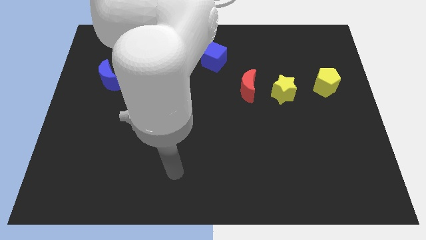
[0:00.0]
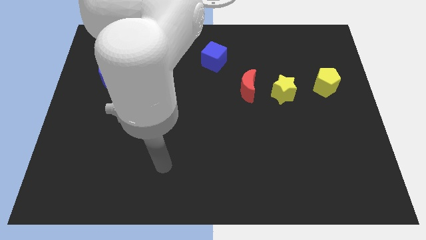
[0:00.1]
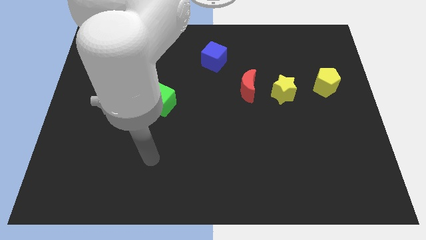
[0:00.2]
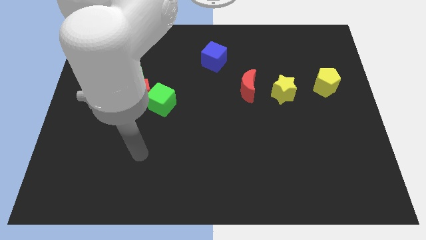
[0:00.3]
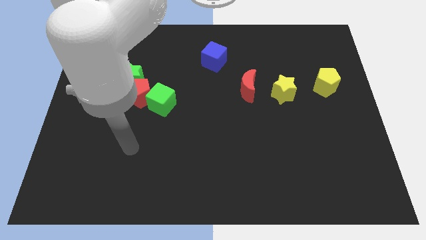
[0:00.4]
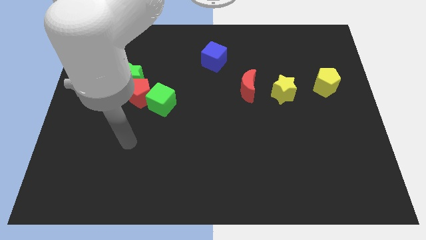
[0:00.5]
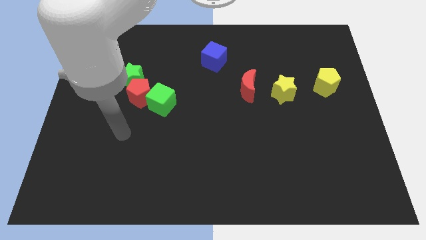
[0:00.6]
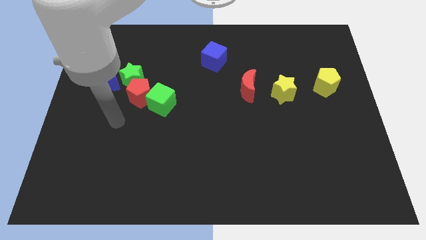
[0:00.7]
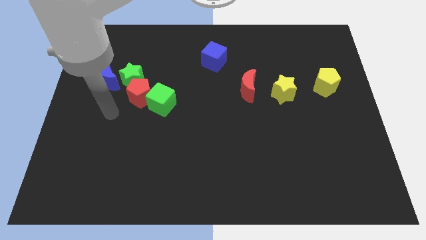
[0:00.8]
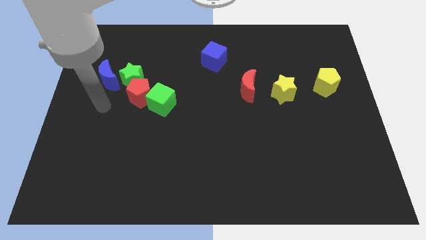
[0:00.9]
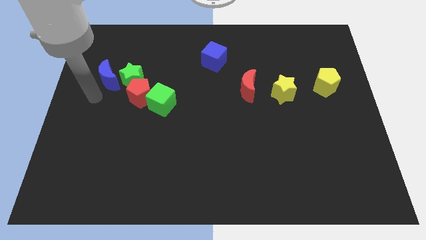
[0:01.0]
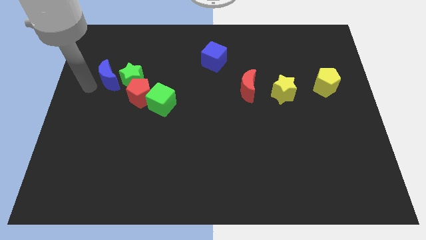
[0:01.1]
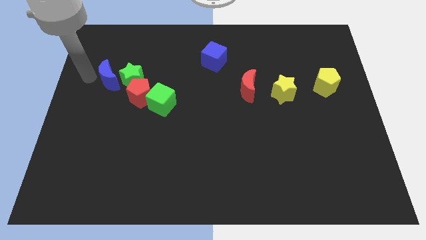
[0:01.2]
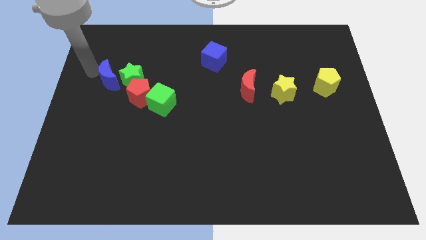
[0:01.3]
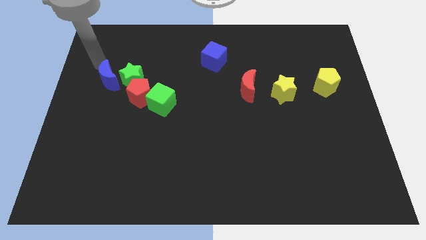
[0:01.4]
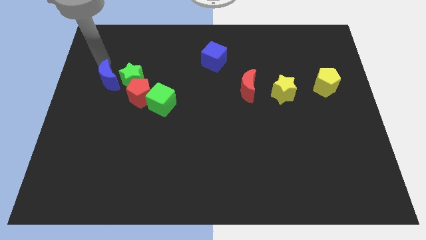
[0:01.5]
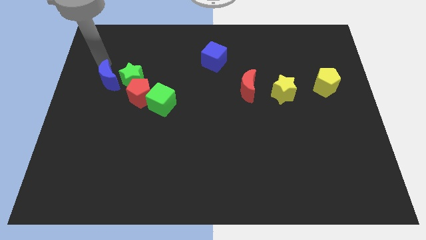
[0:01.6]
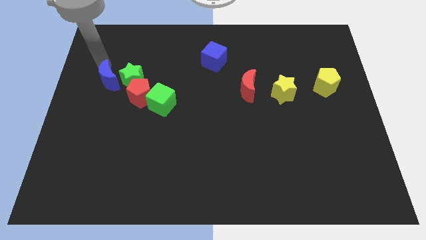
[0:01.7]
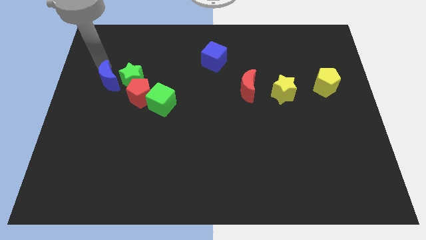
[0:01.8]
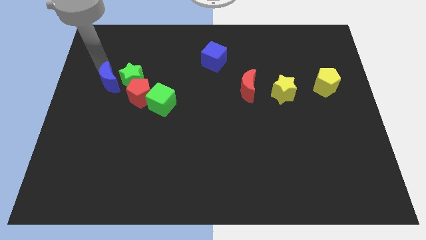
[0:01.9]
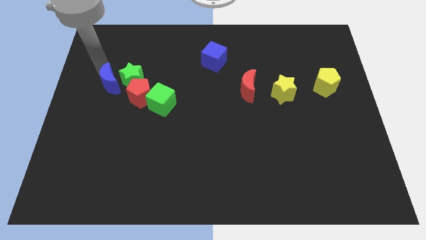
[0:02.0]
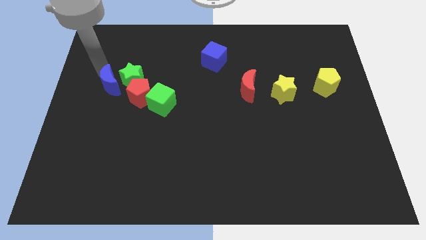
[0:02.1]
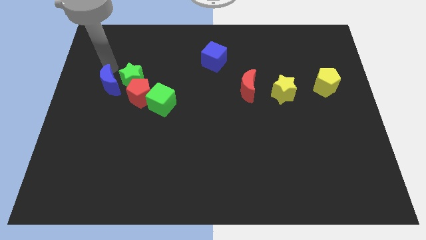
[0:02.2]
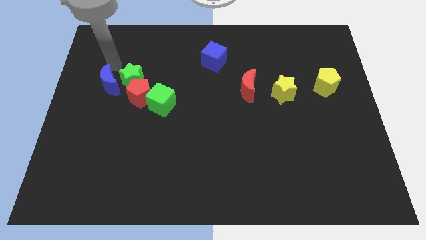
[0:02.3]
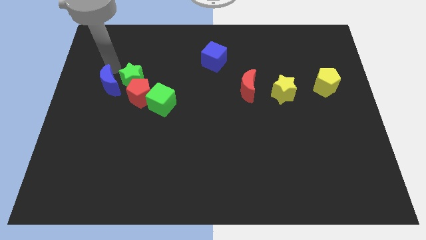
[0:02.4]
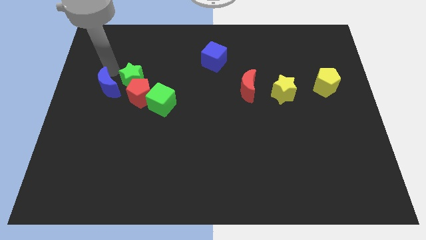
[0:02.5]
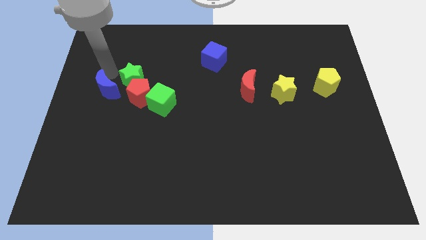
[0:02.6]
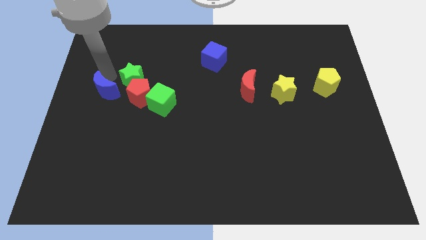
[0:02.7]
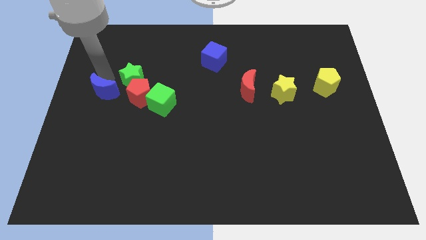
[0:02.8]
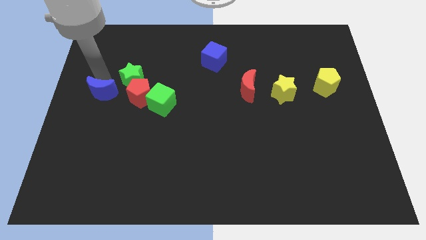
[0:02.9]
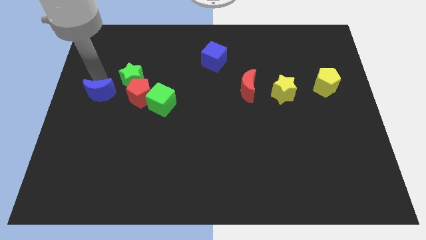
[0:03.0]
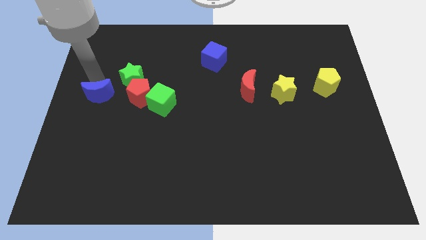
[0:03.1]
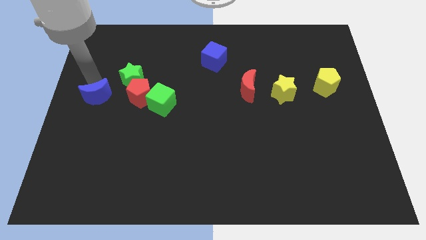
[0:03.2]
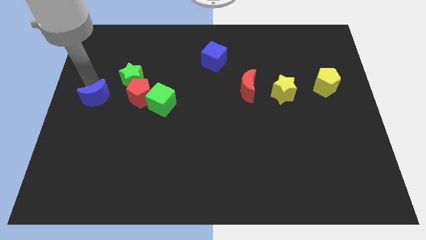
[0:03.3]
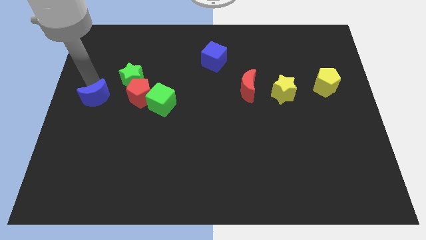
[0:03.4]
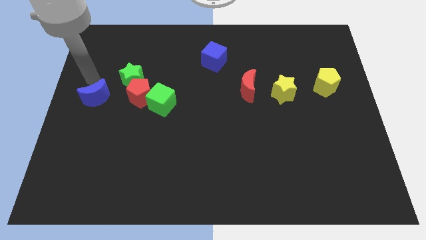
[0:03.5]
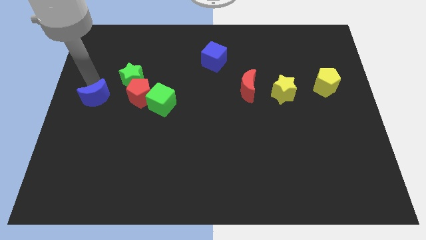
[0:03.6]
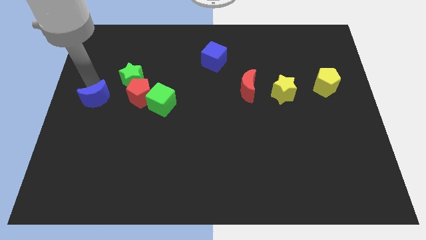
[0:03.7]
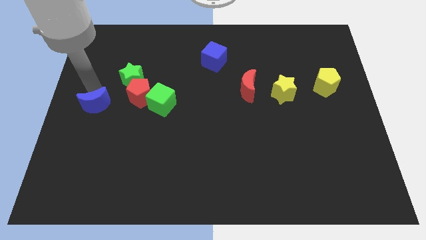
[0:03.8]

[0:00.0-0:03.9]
slightly move the blue moon down

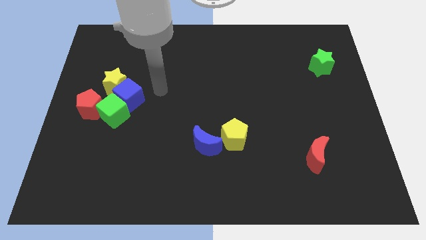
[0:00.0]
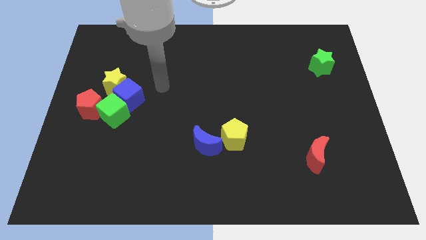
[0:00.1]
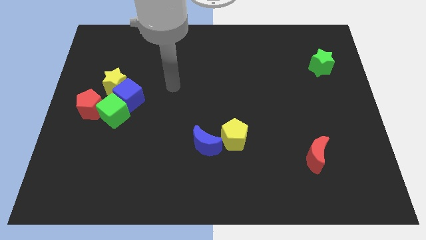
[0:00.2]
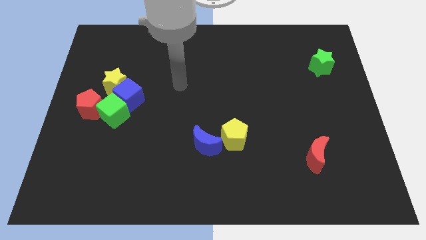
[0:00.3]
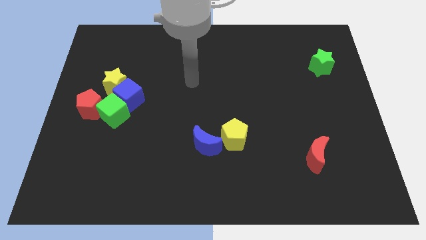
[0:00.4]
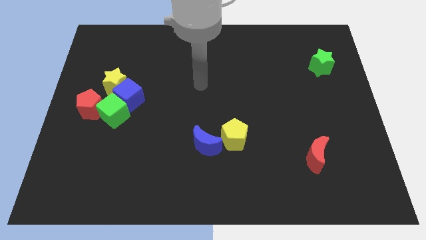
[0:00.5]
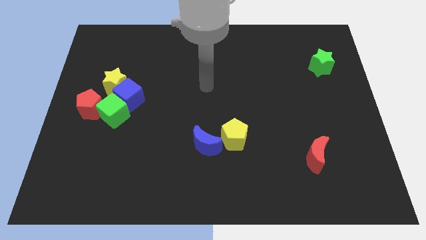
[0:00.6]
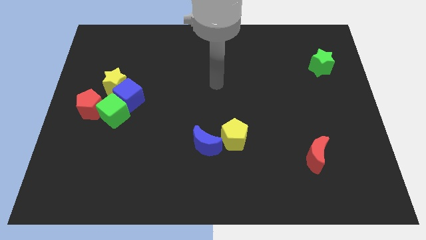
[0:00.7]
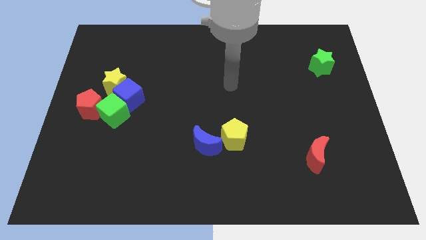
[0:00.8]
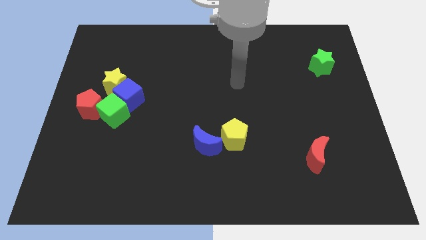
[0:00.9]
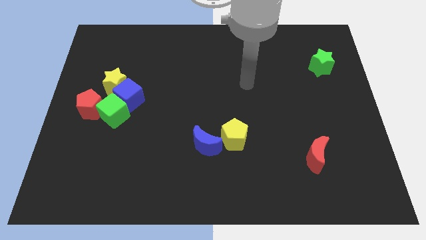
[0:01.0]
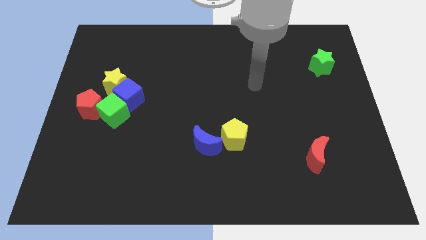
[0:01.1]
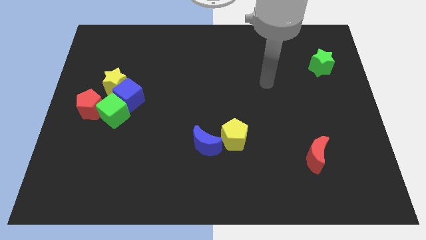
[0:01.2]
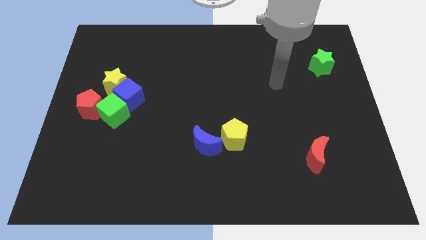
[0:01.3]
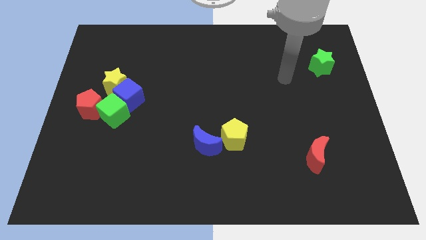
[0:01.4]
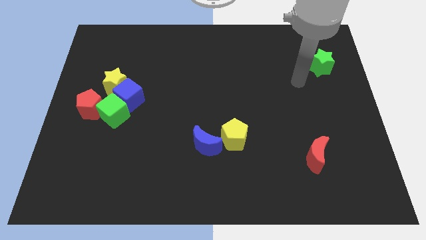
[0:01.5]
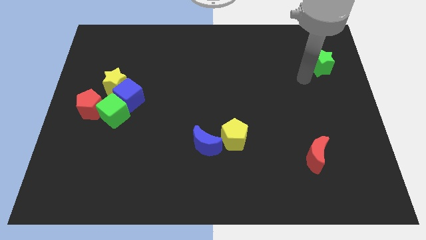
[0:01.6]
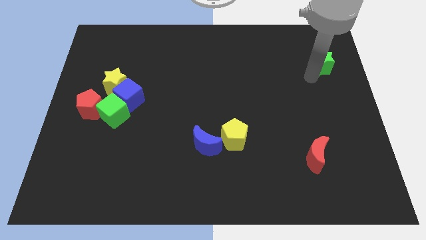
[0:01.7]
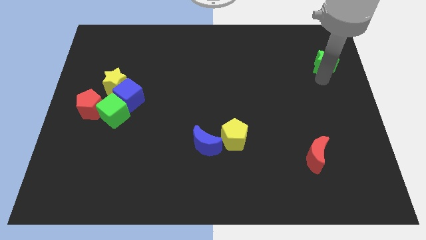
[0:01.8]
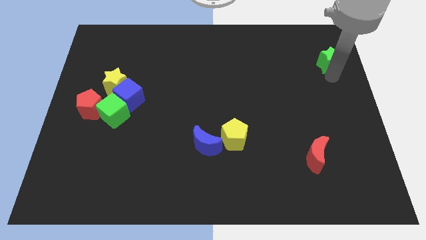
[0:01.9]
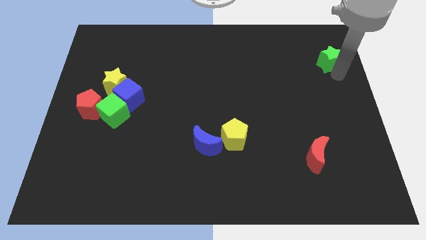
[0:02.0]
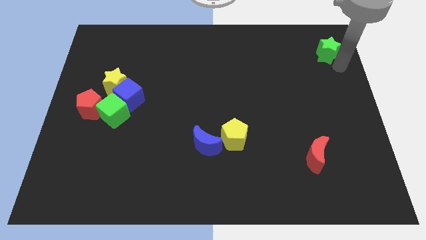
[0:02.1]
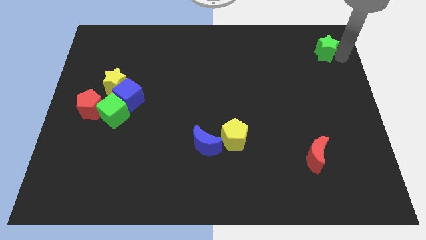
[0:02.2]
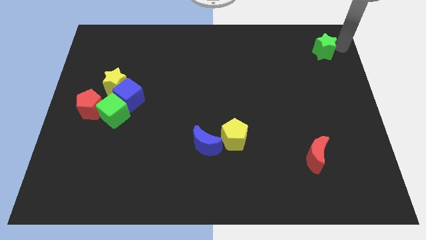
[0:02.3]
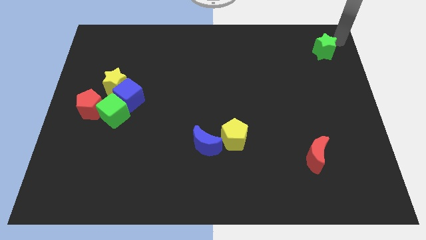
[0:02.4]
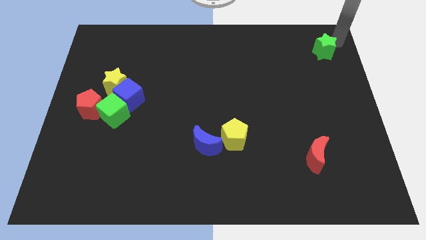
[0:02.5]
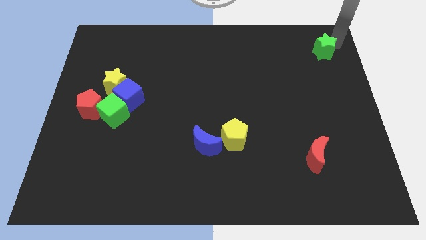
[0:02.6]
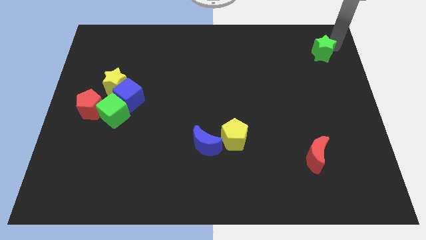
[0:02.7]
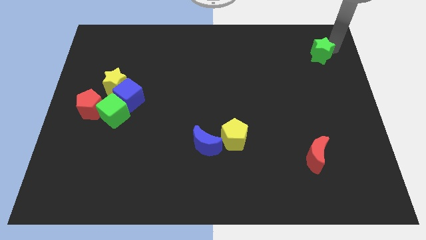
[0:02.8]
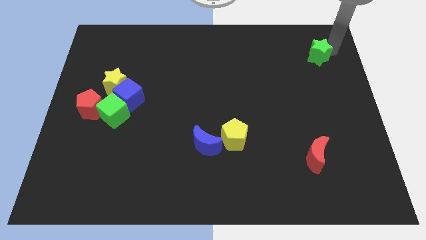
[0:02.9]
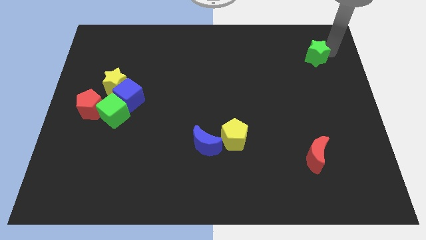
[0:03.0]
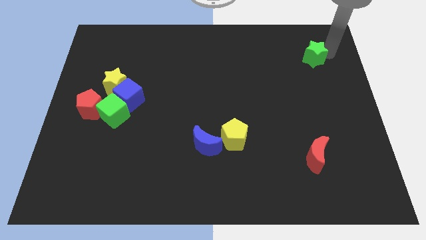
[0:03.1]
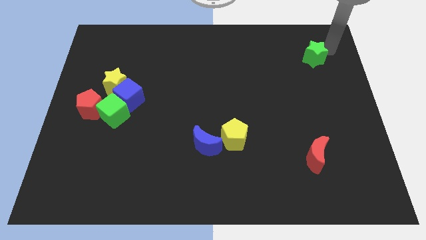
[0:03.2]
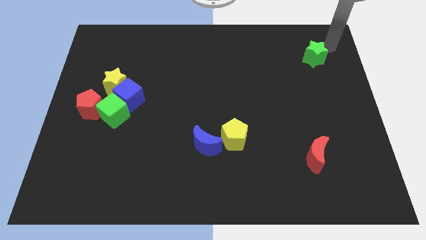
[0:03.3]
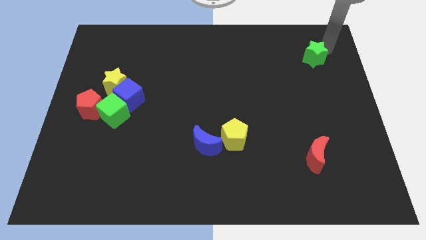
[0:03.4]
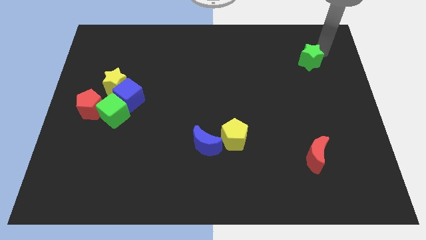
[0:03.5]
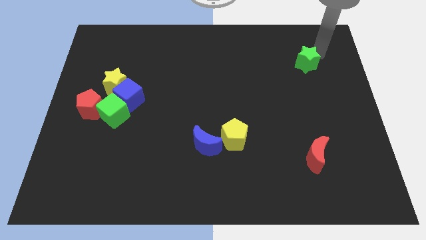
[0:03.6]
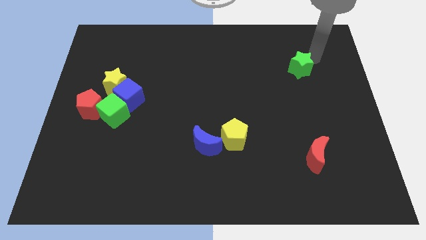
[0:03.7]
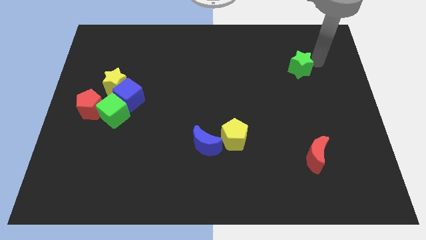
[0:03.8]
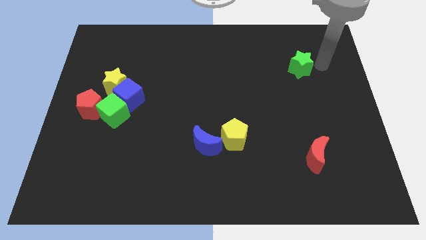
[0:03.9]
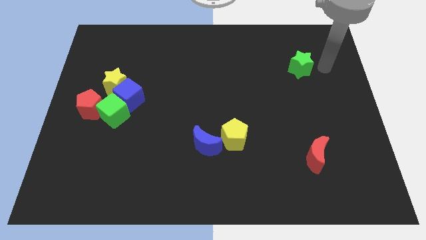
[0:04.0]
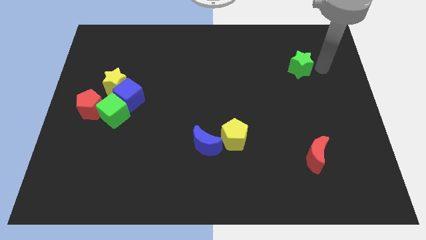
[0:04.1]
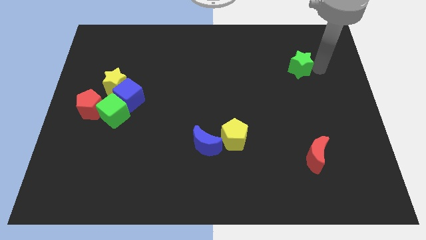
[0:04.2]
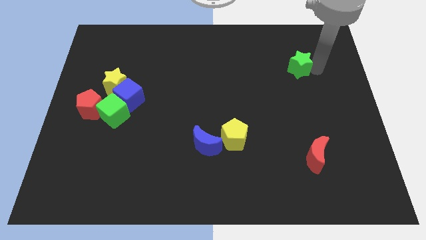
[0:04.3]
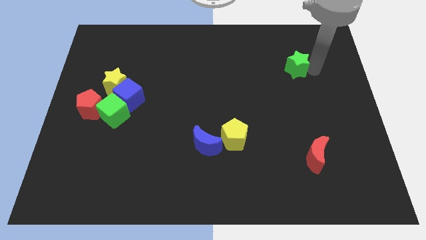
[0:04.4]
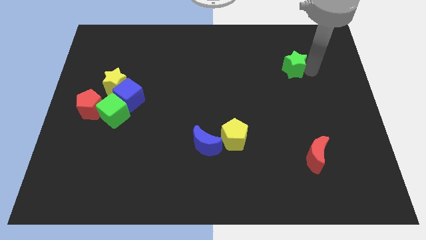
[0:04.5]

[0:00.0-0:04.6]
push the green star to the left a bit
